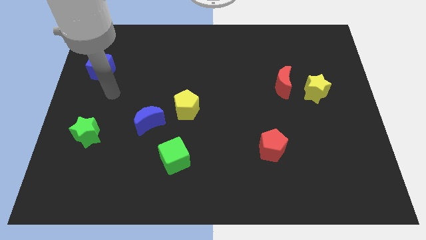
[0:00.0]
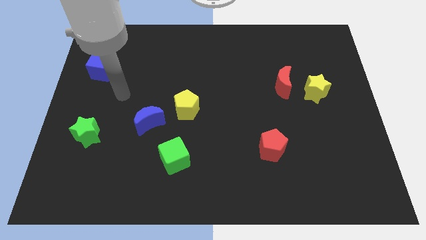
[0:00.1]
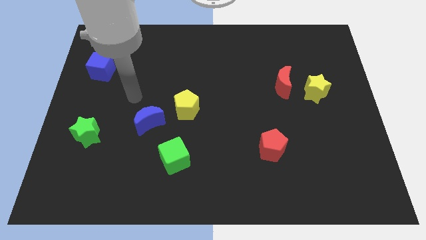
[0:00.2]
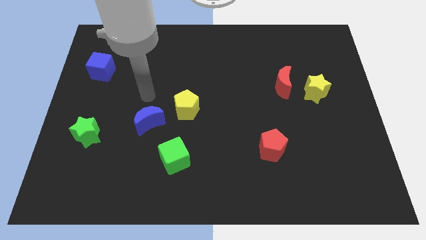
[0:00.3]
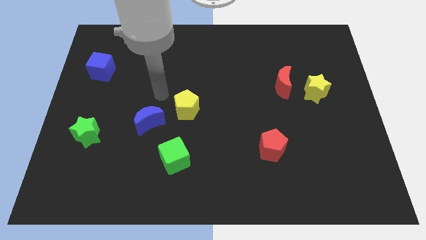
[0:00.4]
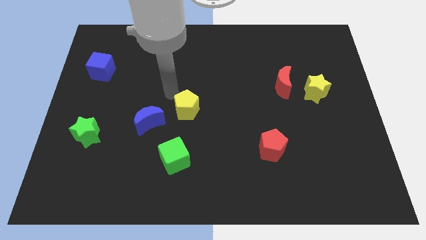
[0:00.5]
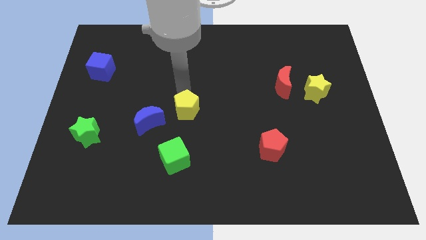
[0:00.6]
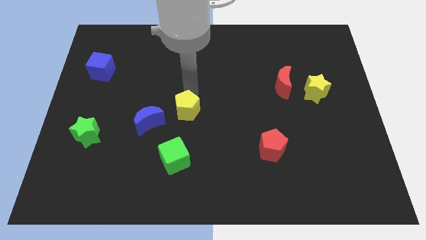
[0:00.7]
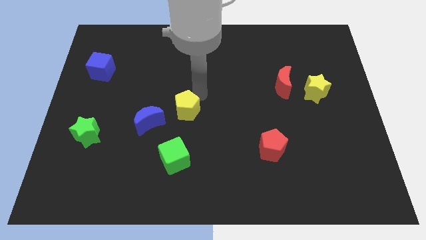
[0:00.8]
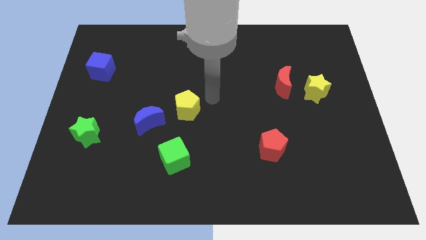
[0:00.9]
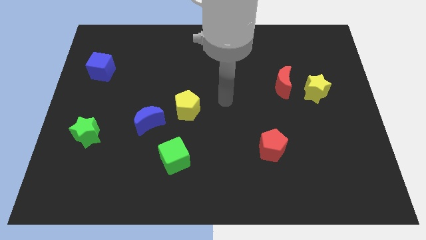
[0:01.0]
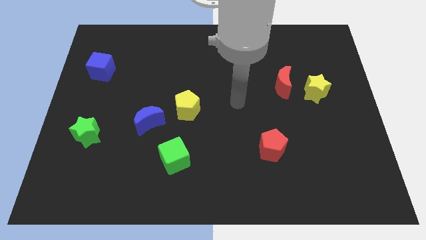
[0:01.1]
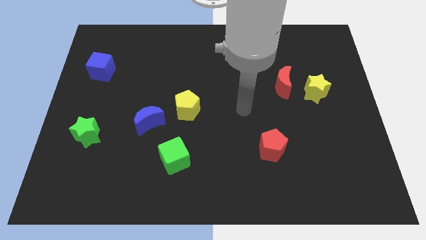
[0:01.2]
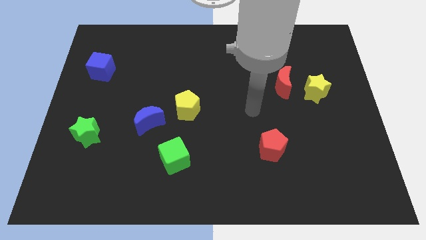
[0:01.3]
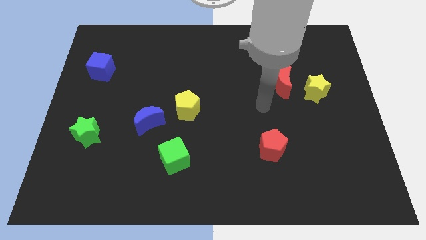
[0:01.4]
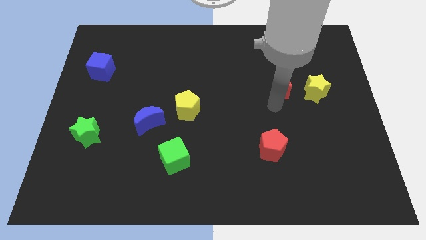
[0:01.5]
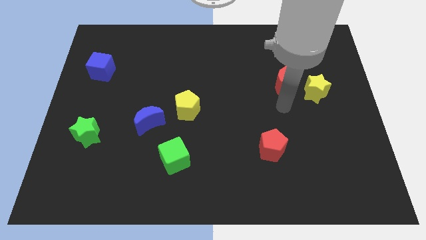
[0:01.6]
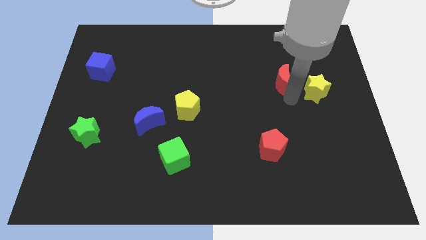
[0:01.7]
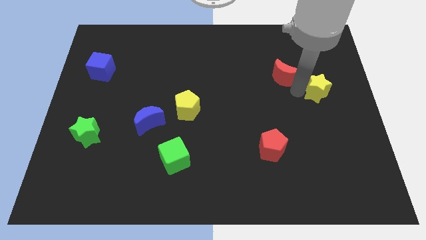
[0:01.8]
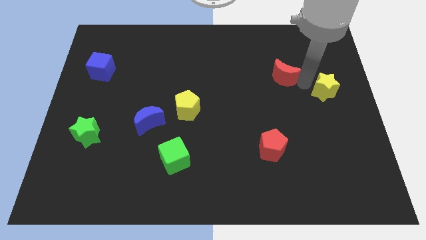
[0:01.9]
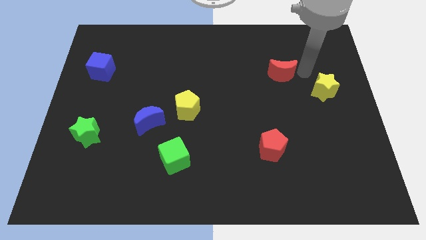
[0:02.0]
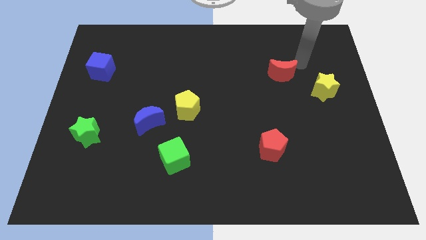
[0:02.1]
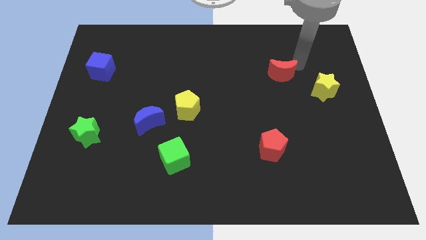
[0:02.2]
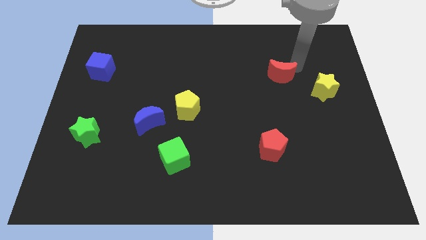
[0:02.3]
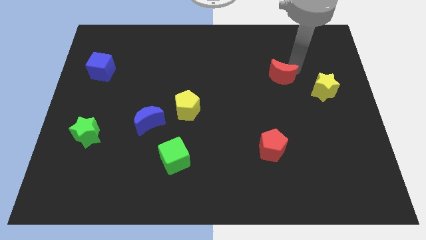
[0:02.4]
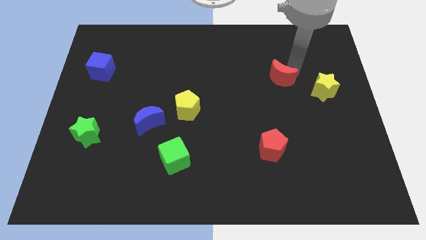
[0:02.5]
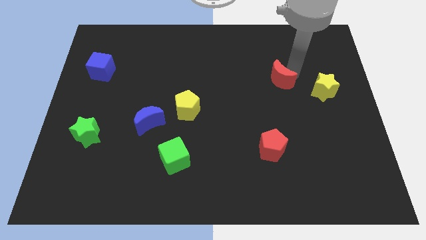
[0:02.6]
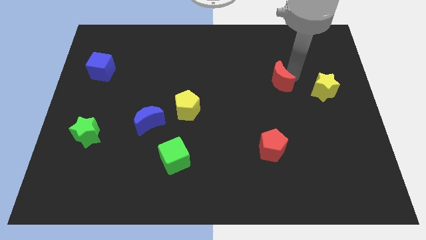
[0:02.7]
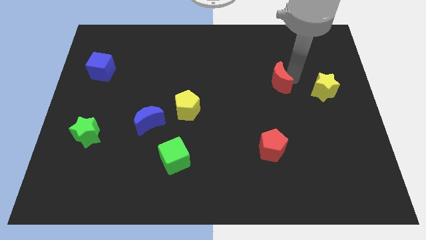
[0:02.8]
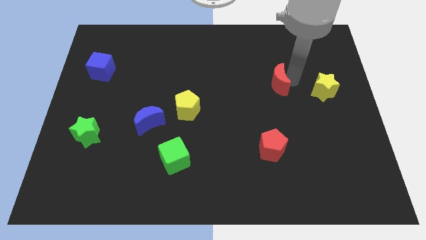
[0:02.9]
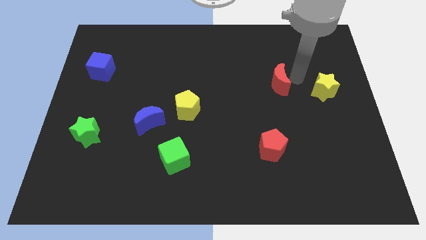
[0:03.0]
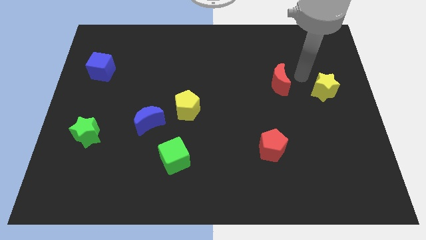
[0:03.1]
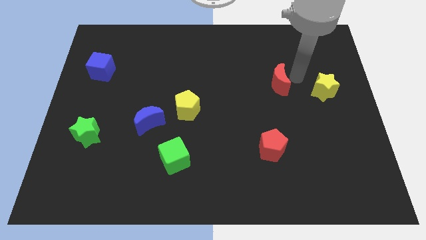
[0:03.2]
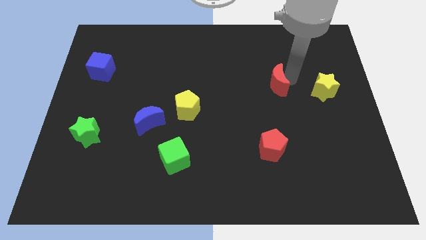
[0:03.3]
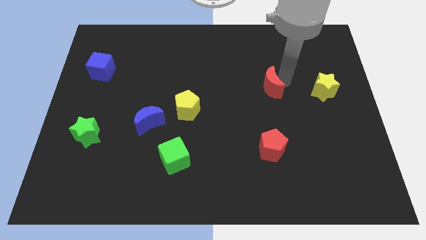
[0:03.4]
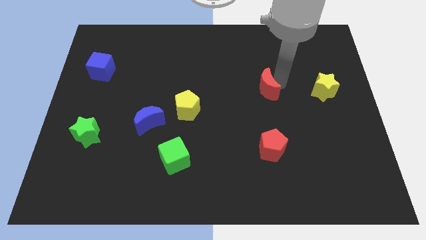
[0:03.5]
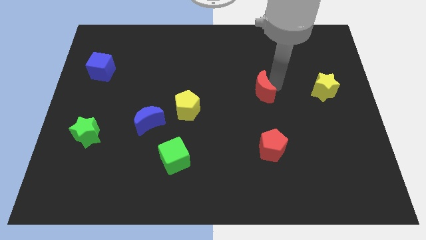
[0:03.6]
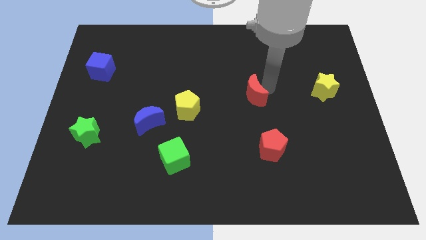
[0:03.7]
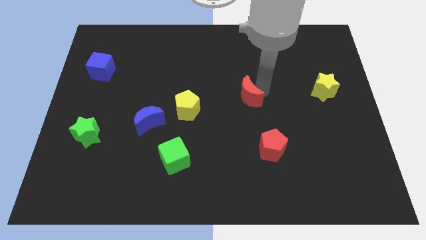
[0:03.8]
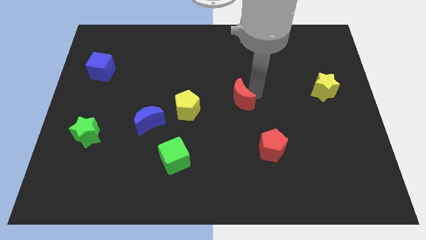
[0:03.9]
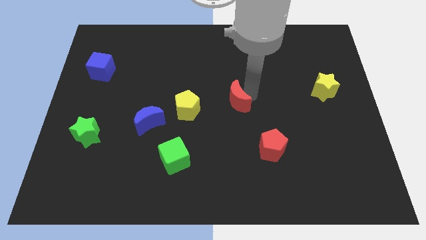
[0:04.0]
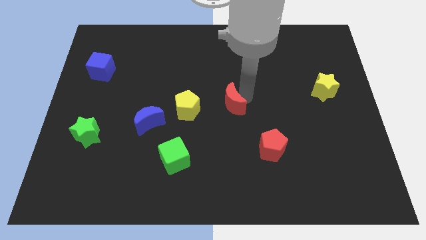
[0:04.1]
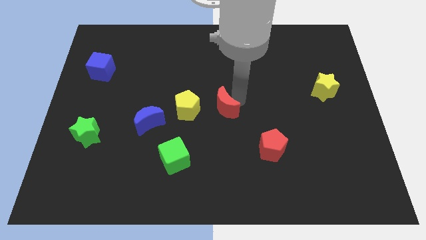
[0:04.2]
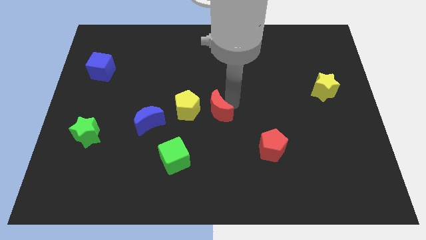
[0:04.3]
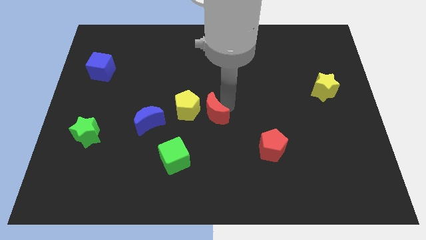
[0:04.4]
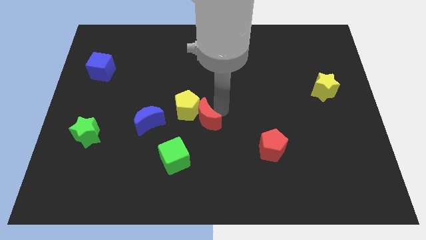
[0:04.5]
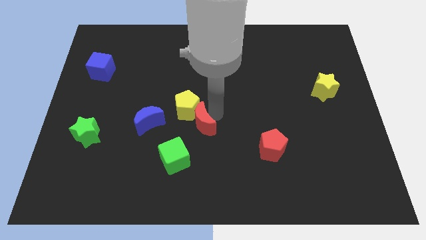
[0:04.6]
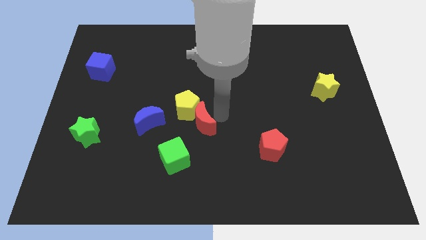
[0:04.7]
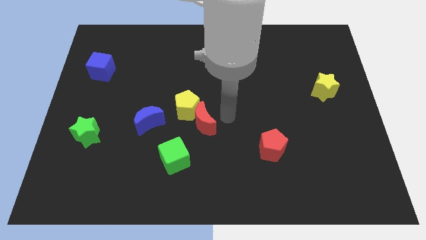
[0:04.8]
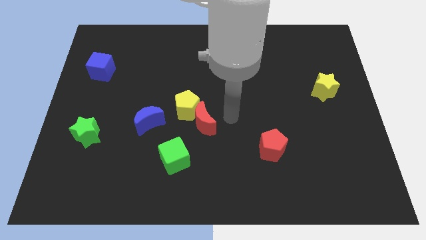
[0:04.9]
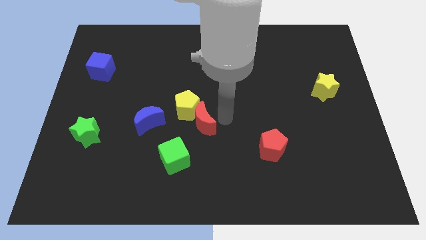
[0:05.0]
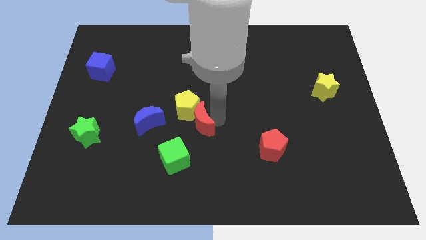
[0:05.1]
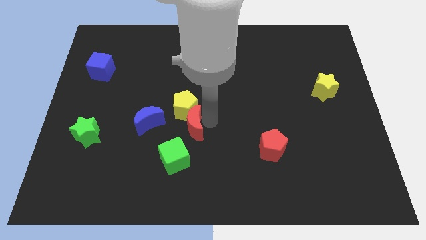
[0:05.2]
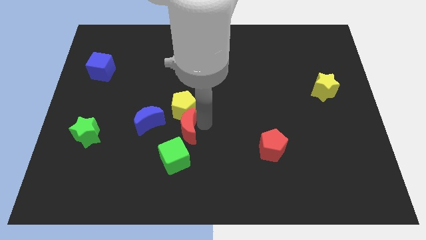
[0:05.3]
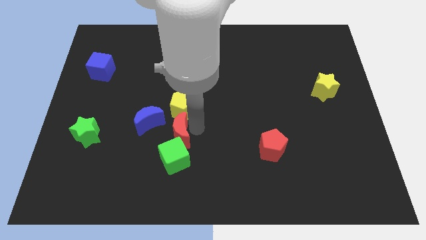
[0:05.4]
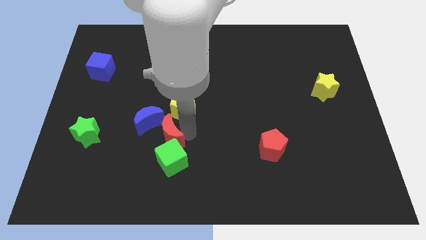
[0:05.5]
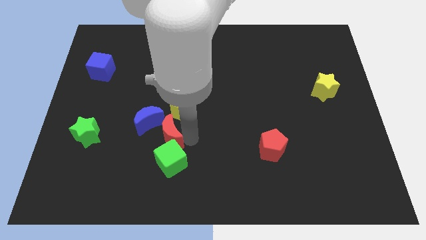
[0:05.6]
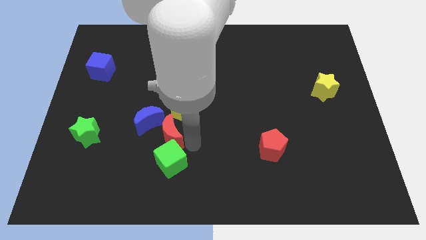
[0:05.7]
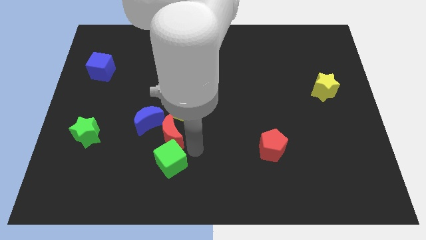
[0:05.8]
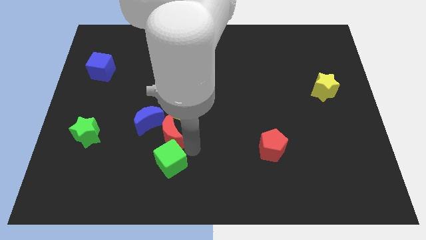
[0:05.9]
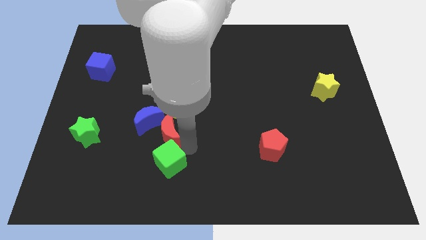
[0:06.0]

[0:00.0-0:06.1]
move the red moon close to the blue moon
